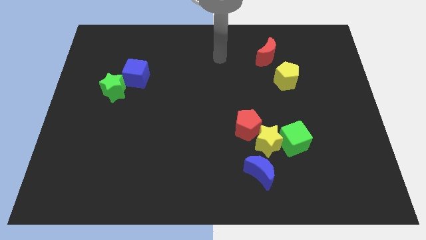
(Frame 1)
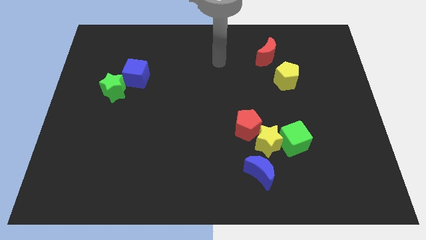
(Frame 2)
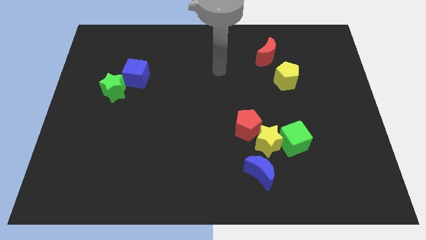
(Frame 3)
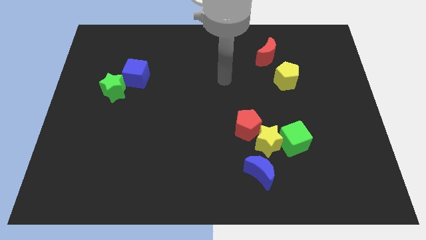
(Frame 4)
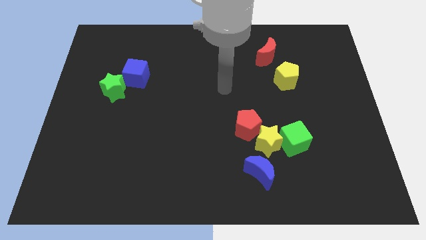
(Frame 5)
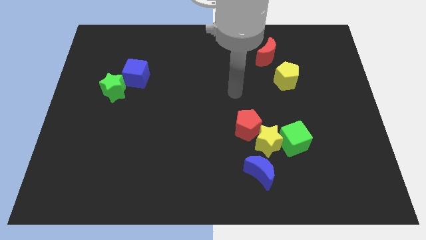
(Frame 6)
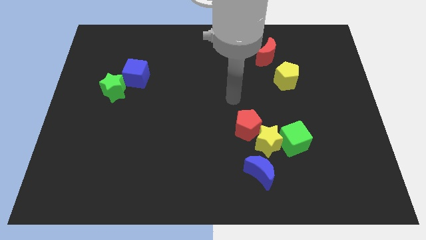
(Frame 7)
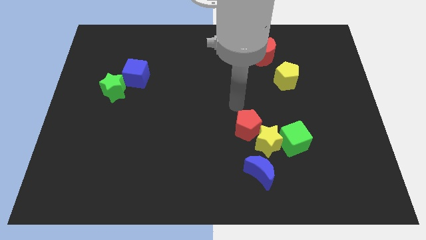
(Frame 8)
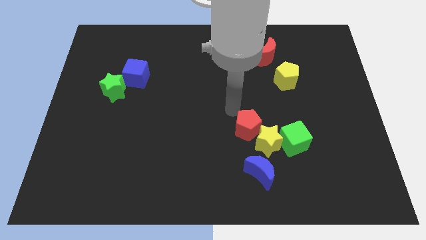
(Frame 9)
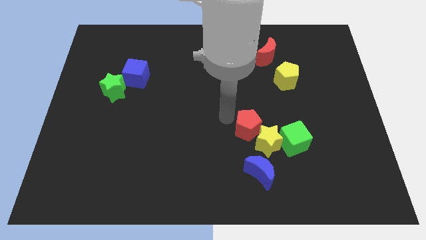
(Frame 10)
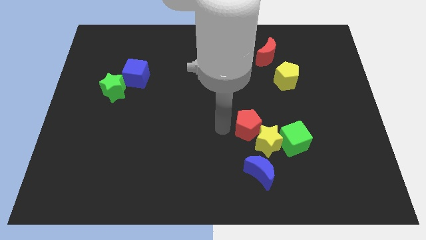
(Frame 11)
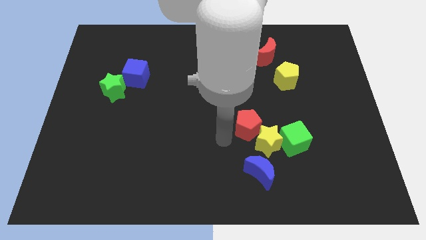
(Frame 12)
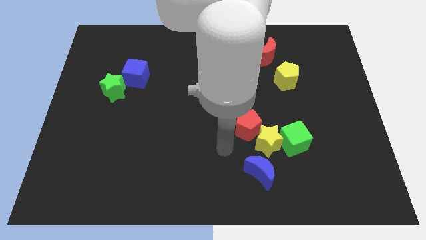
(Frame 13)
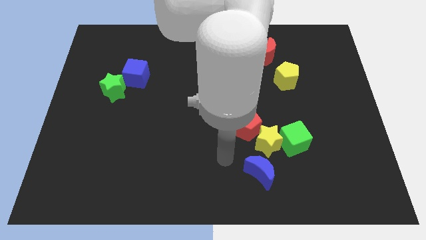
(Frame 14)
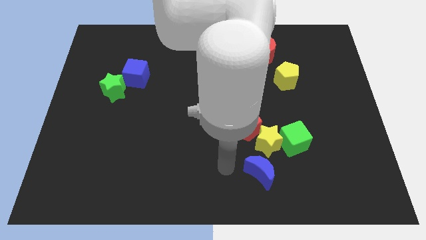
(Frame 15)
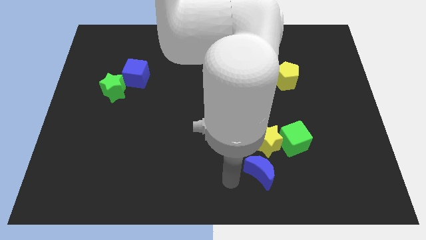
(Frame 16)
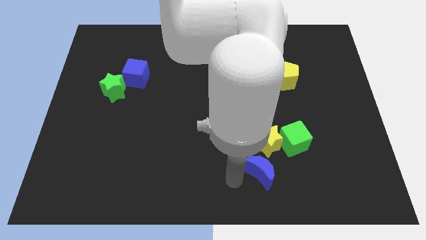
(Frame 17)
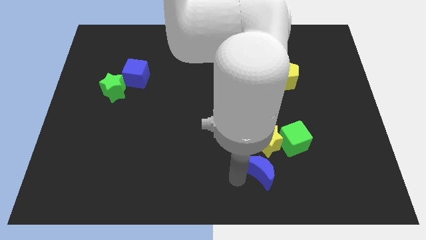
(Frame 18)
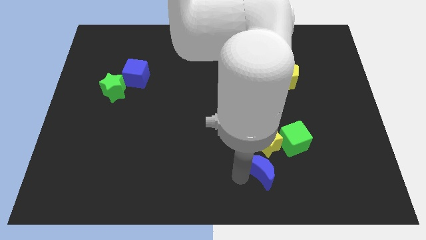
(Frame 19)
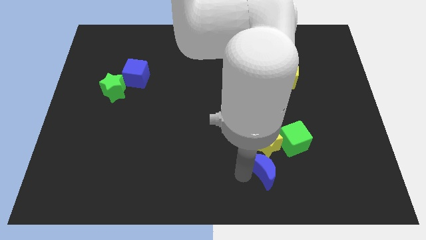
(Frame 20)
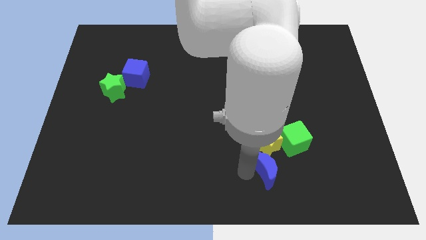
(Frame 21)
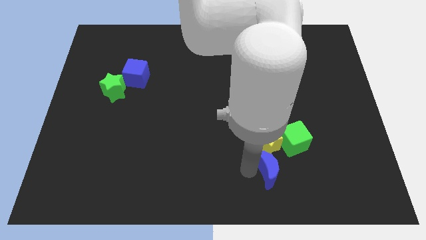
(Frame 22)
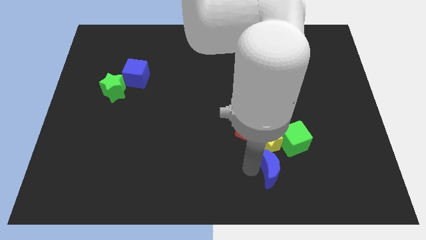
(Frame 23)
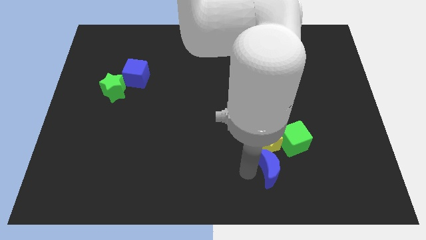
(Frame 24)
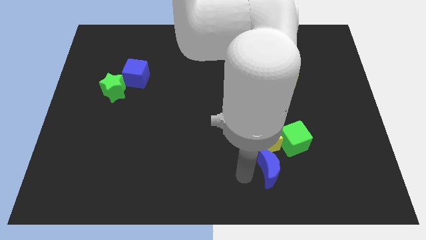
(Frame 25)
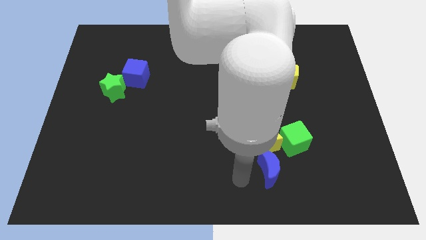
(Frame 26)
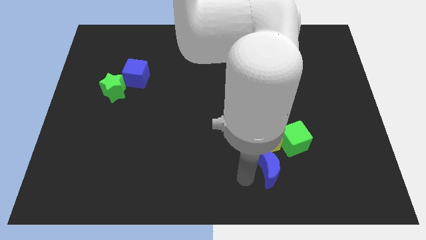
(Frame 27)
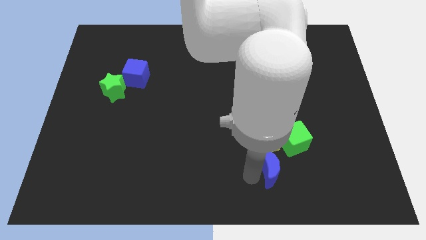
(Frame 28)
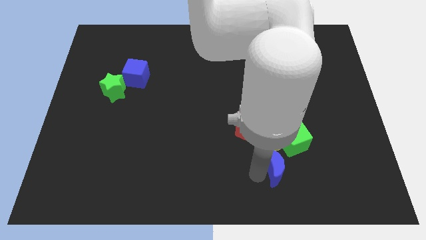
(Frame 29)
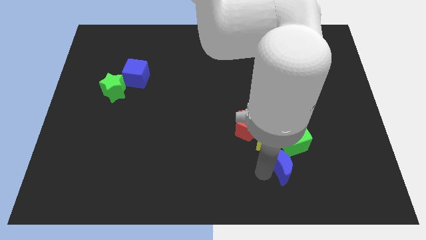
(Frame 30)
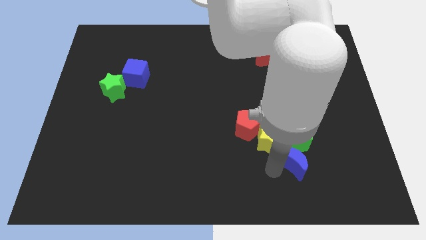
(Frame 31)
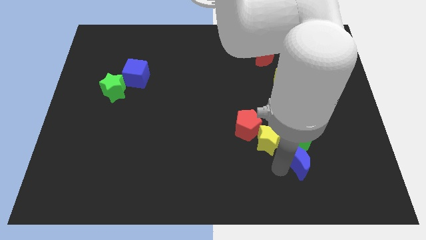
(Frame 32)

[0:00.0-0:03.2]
push the blue moon upwards and then to the right a little

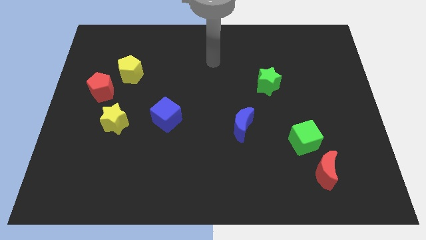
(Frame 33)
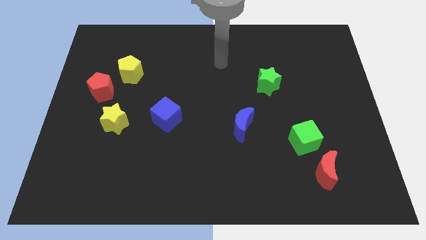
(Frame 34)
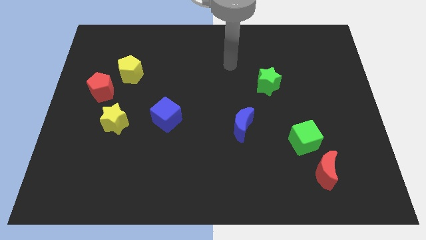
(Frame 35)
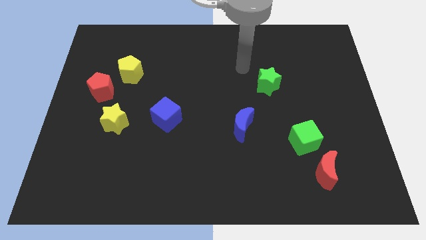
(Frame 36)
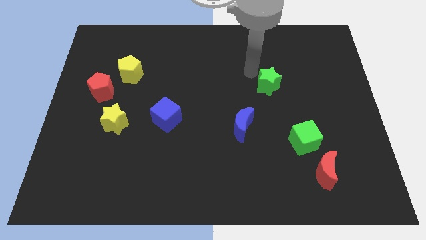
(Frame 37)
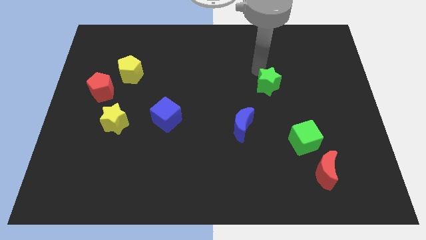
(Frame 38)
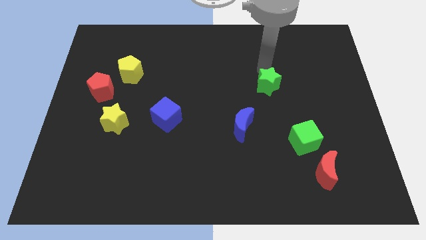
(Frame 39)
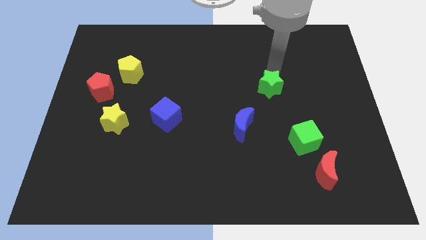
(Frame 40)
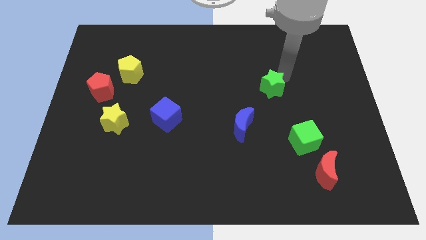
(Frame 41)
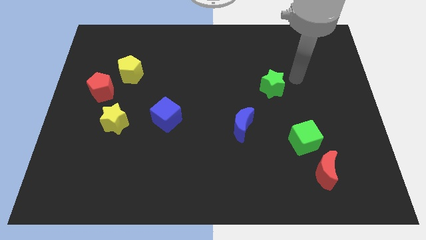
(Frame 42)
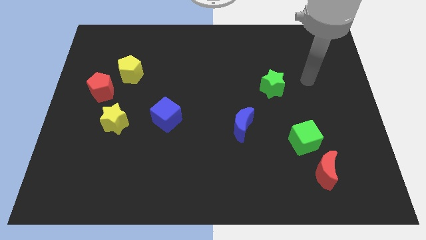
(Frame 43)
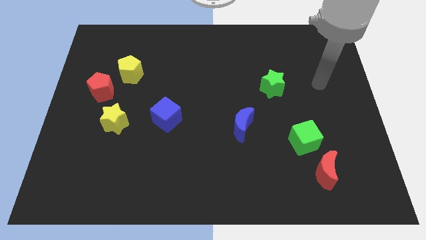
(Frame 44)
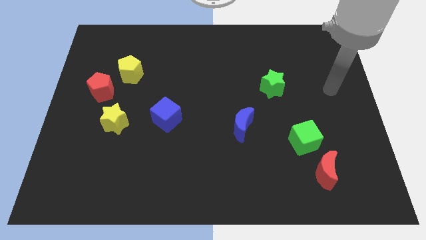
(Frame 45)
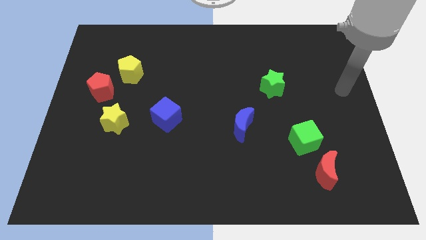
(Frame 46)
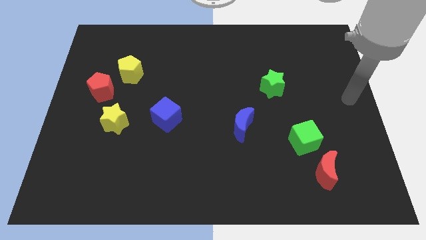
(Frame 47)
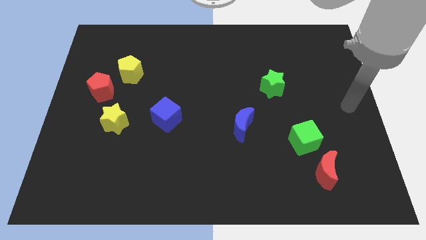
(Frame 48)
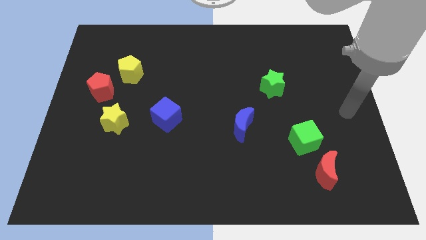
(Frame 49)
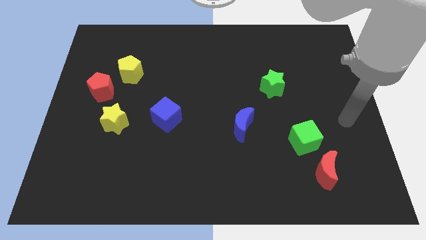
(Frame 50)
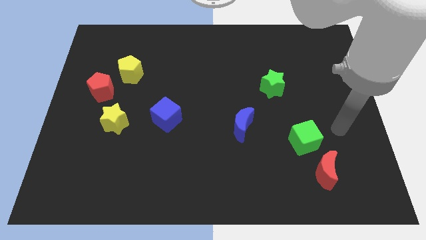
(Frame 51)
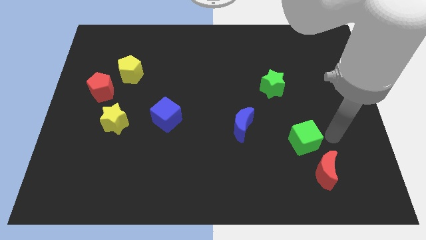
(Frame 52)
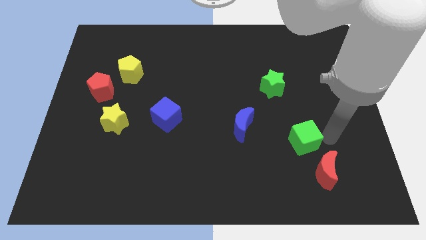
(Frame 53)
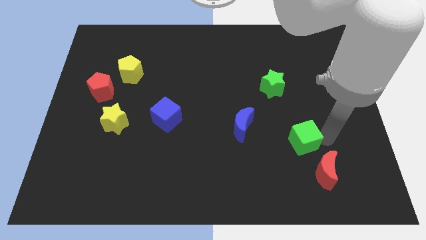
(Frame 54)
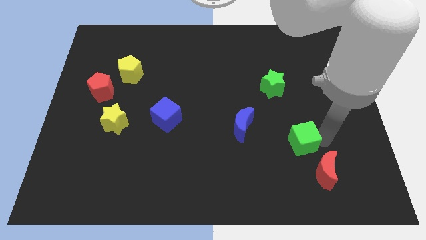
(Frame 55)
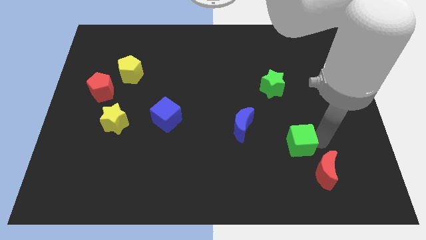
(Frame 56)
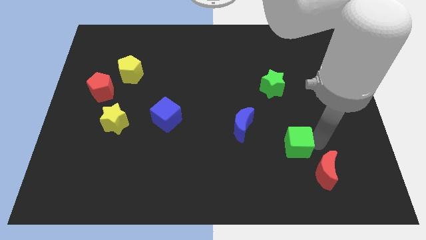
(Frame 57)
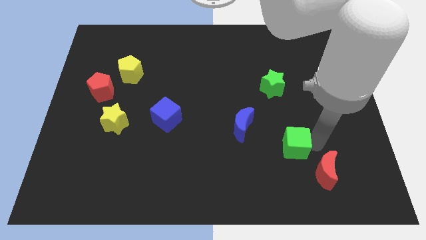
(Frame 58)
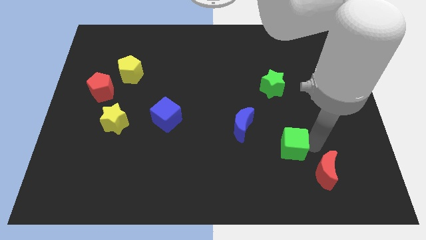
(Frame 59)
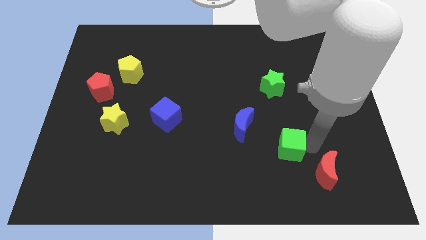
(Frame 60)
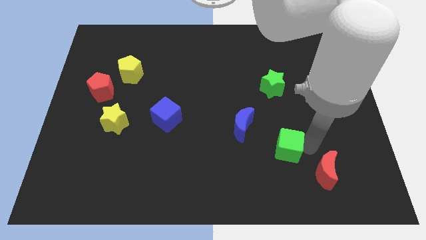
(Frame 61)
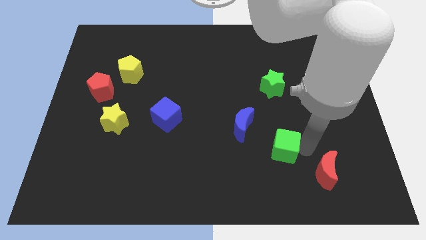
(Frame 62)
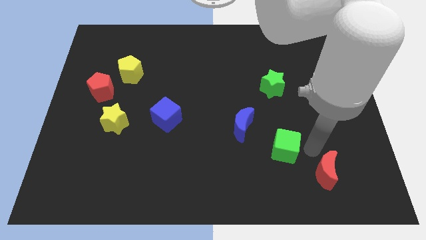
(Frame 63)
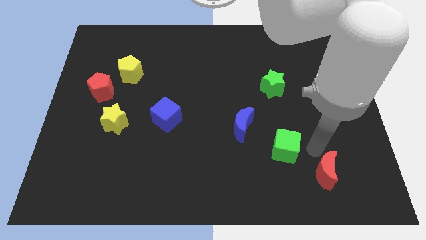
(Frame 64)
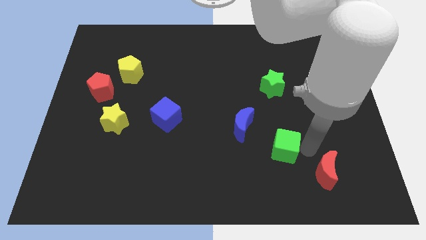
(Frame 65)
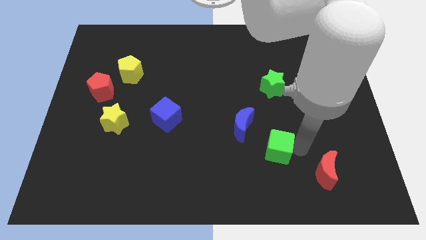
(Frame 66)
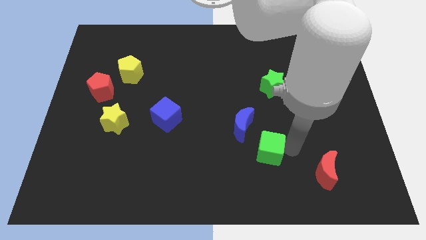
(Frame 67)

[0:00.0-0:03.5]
push the green cube a little left

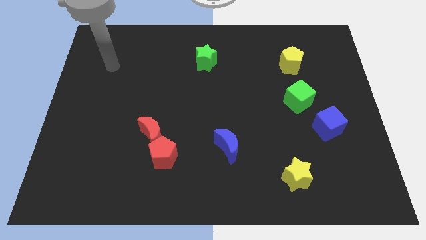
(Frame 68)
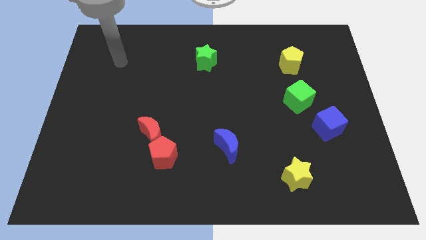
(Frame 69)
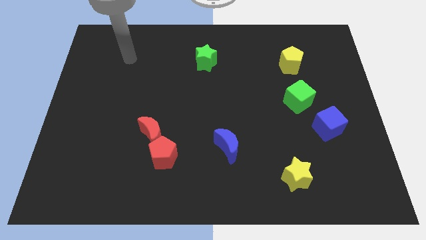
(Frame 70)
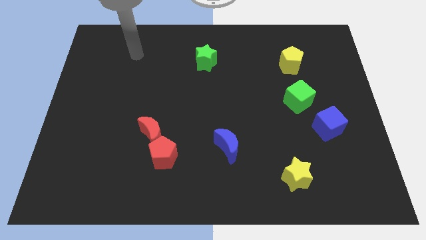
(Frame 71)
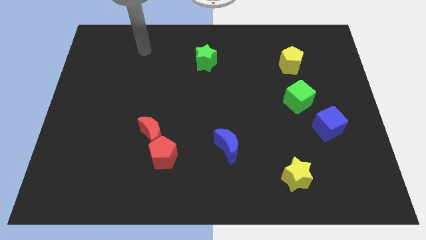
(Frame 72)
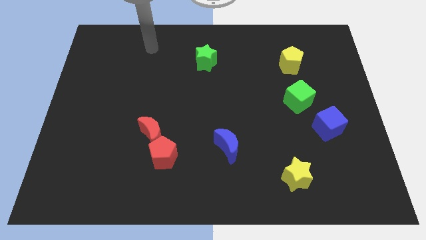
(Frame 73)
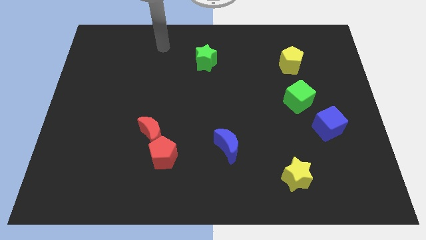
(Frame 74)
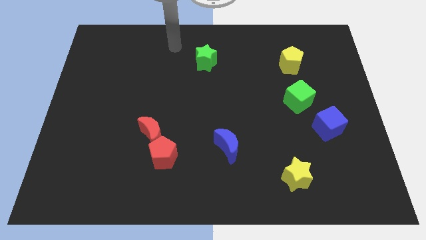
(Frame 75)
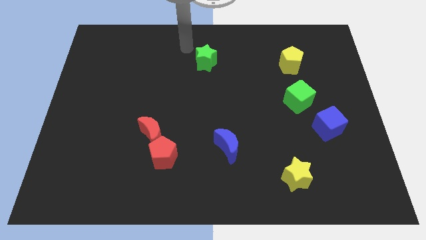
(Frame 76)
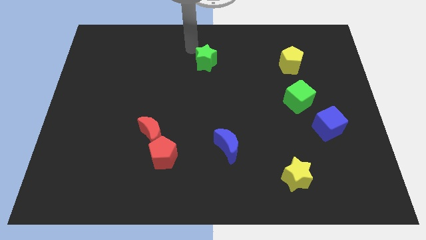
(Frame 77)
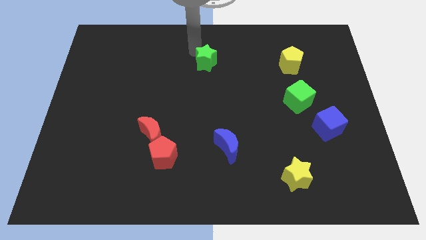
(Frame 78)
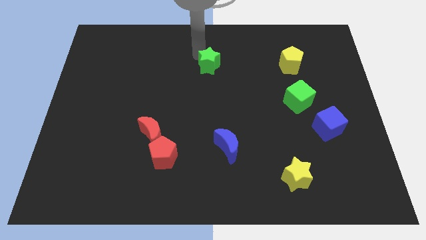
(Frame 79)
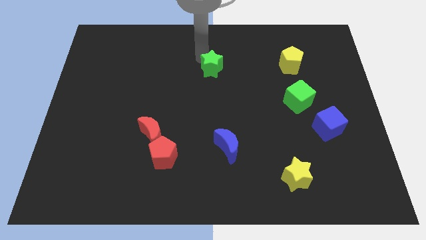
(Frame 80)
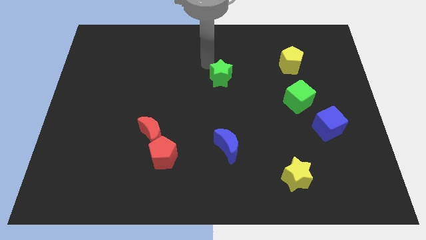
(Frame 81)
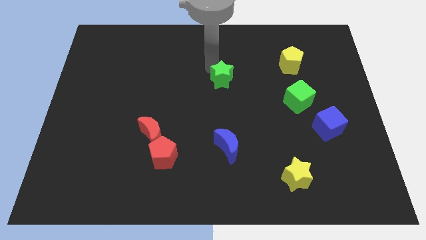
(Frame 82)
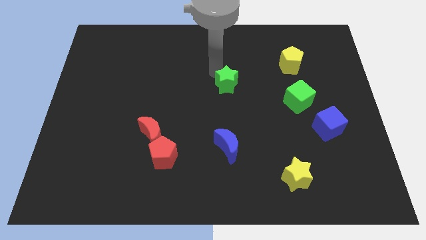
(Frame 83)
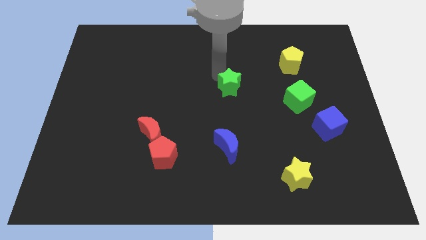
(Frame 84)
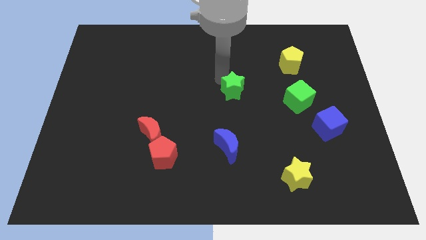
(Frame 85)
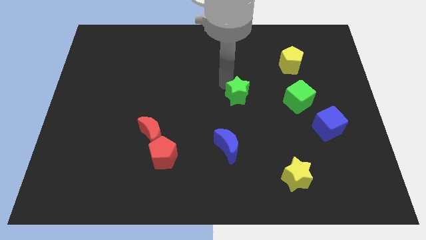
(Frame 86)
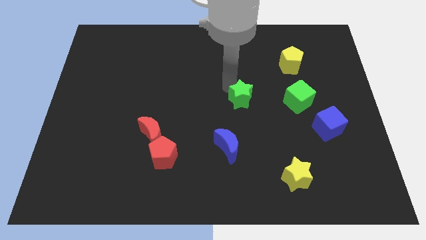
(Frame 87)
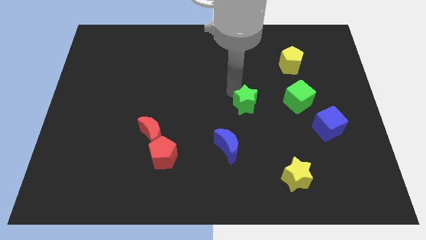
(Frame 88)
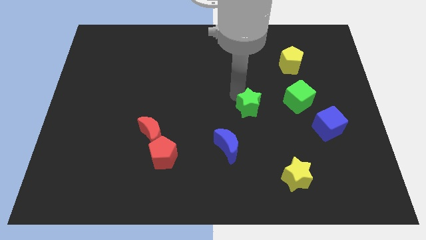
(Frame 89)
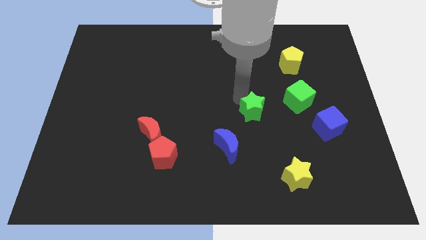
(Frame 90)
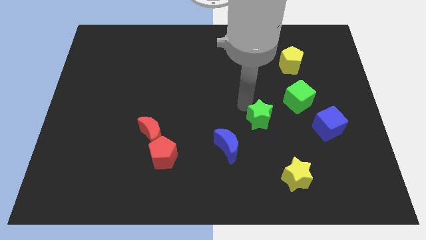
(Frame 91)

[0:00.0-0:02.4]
push the green star downwards and right diagonally
